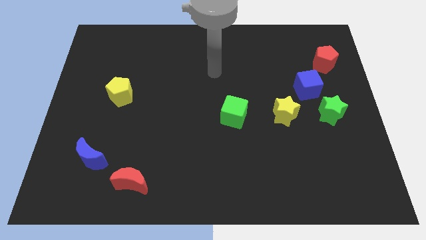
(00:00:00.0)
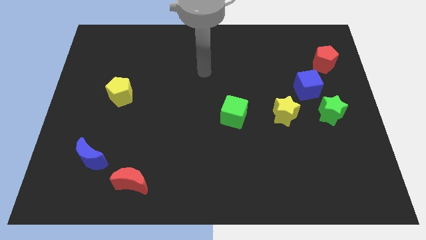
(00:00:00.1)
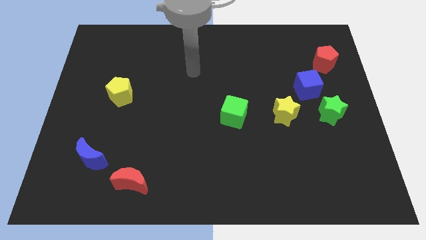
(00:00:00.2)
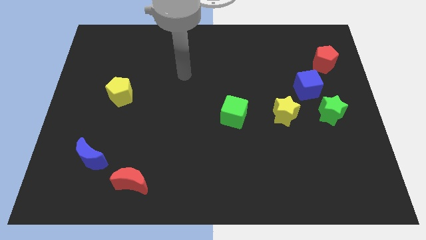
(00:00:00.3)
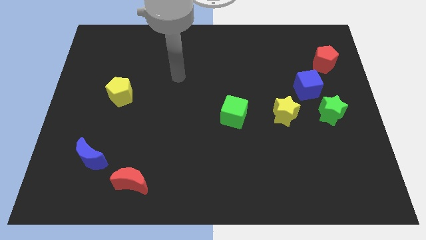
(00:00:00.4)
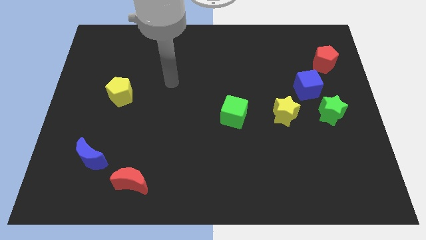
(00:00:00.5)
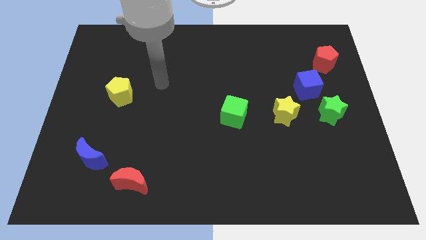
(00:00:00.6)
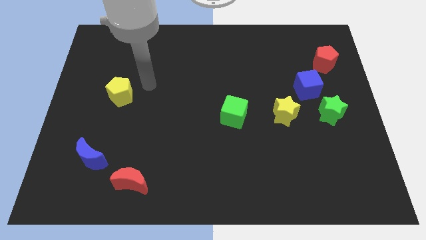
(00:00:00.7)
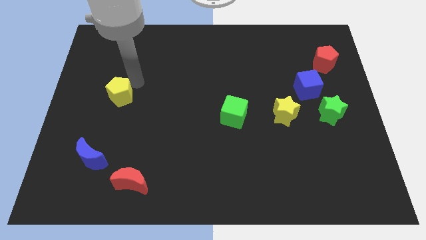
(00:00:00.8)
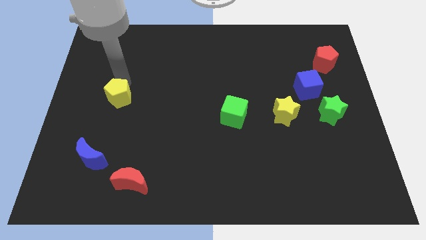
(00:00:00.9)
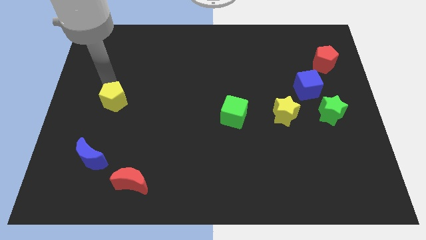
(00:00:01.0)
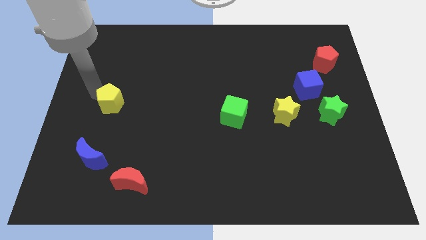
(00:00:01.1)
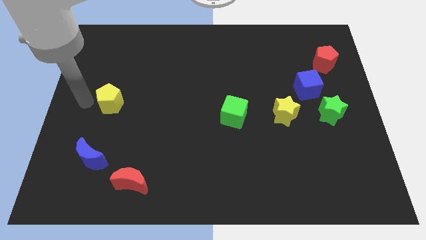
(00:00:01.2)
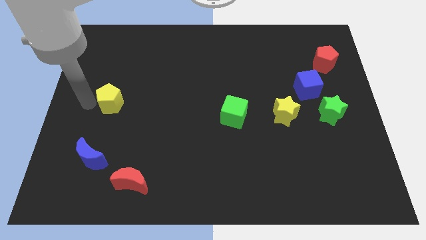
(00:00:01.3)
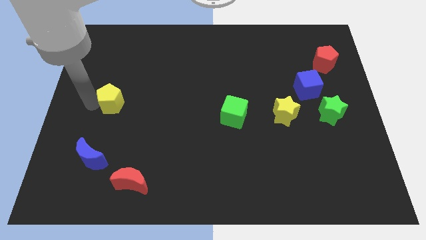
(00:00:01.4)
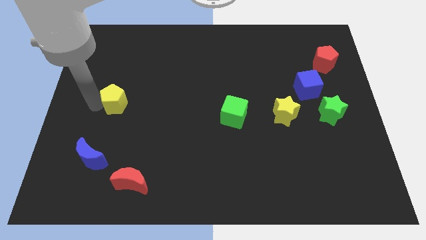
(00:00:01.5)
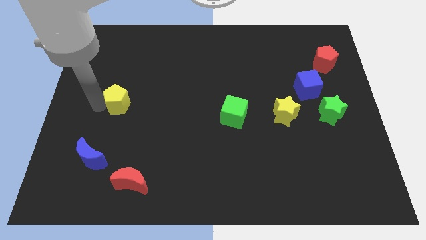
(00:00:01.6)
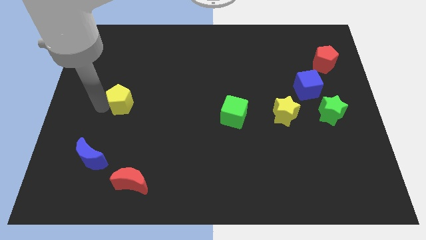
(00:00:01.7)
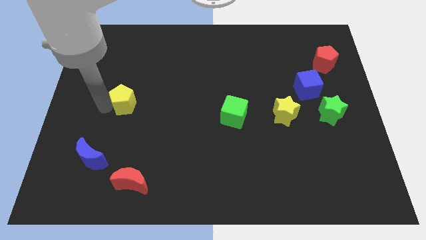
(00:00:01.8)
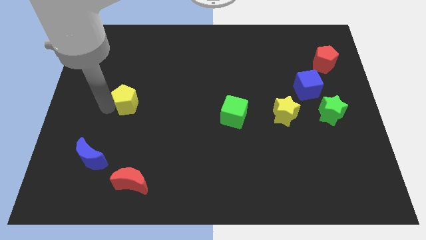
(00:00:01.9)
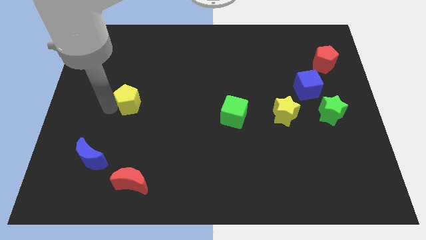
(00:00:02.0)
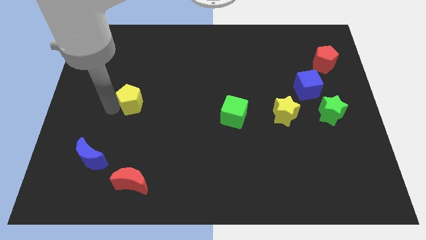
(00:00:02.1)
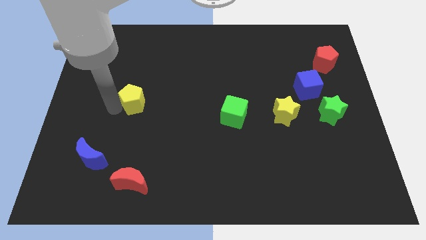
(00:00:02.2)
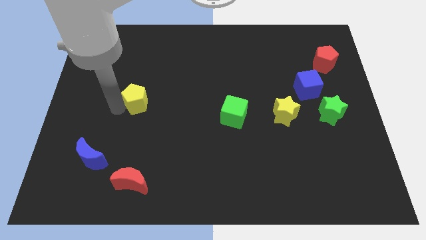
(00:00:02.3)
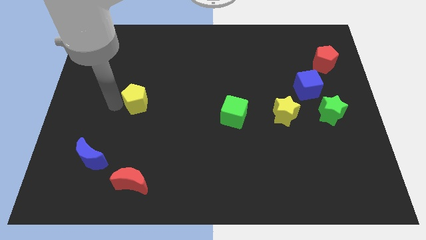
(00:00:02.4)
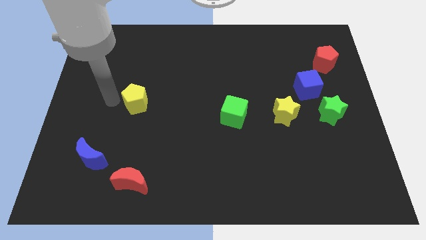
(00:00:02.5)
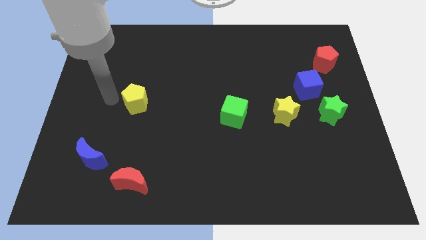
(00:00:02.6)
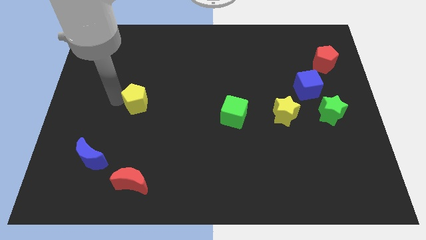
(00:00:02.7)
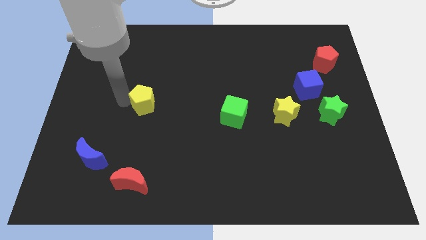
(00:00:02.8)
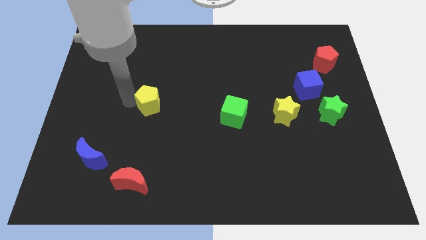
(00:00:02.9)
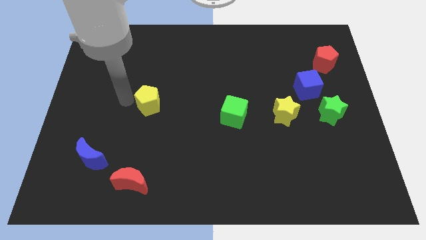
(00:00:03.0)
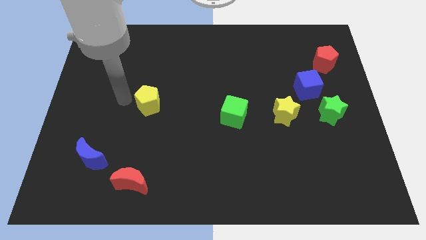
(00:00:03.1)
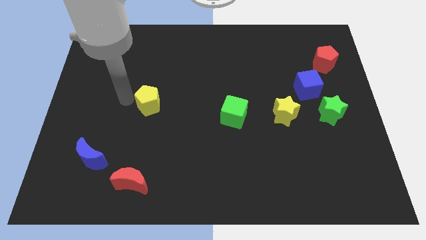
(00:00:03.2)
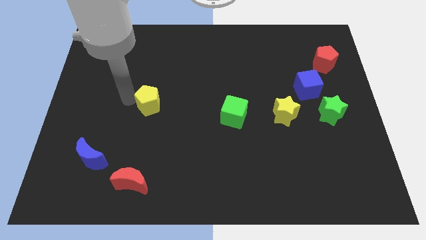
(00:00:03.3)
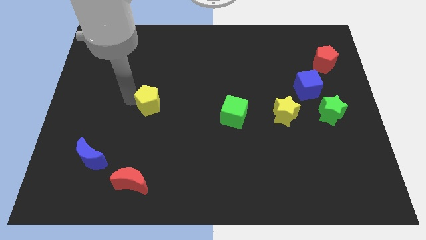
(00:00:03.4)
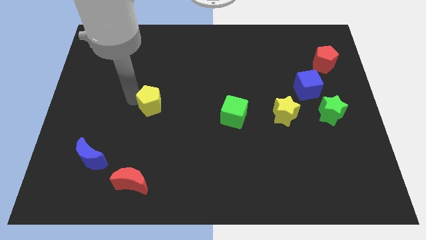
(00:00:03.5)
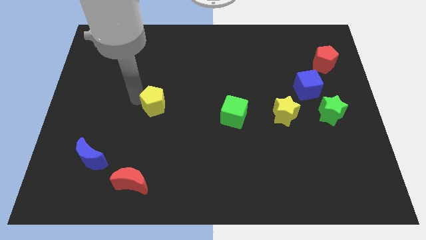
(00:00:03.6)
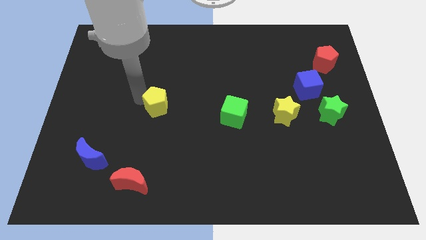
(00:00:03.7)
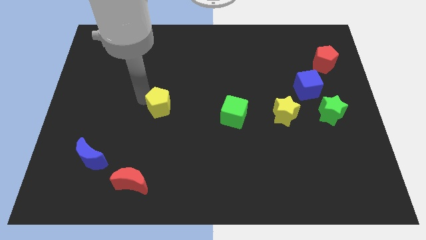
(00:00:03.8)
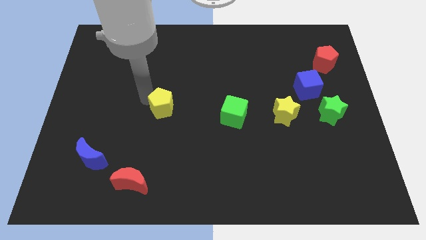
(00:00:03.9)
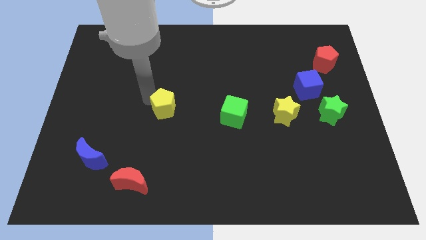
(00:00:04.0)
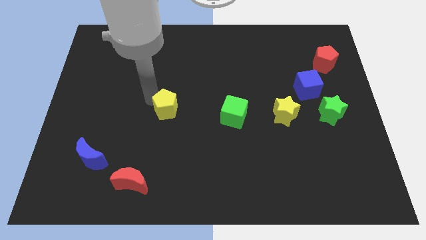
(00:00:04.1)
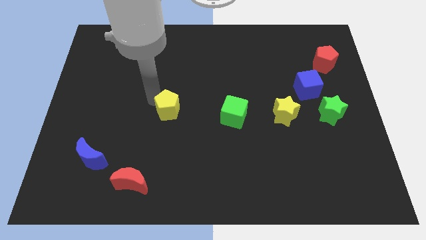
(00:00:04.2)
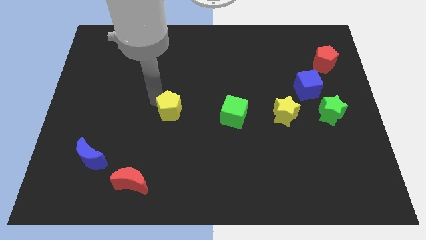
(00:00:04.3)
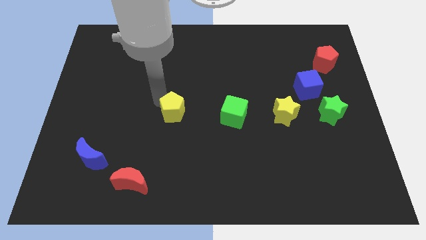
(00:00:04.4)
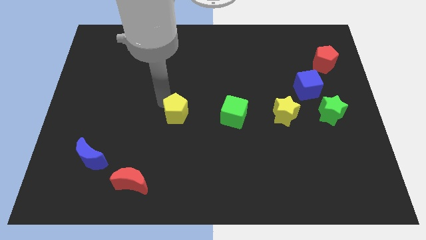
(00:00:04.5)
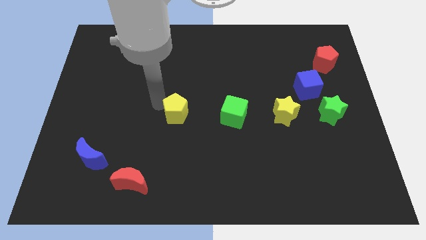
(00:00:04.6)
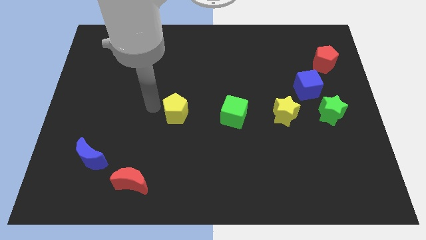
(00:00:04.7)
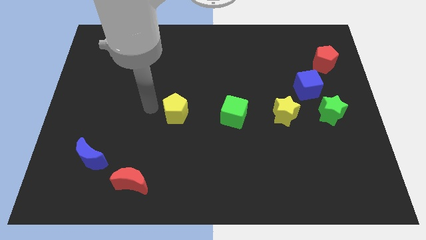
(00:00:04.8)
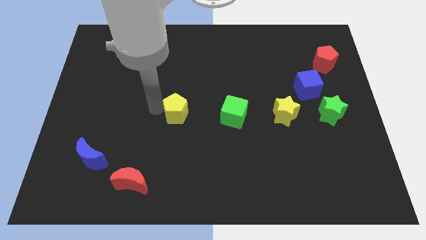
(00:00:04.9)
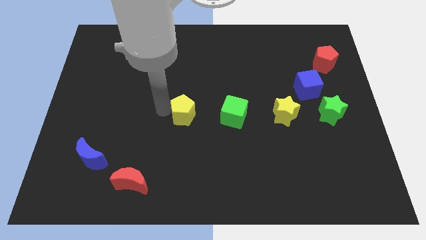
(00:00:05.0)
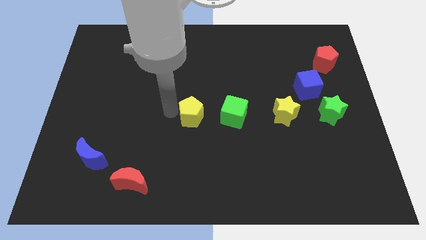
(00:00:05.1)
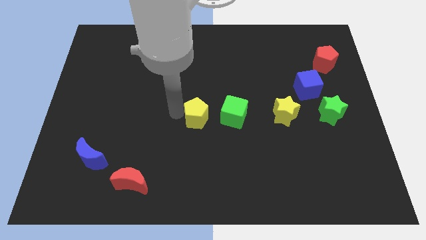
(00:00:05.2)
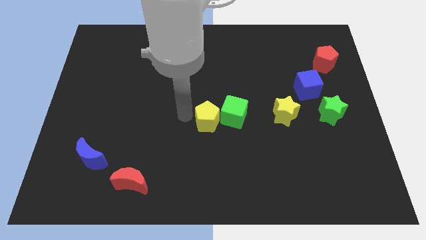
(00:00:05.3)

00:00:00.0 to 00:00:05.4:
push the yellow pentagon close to the green cube

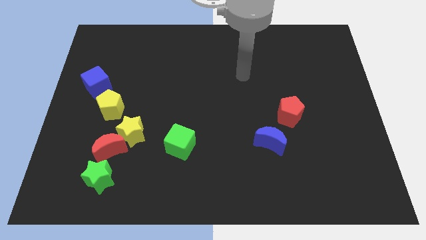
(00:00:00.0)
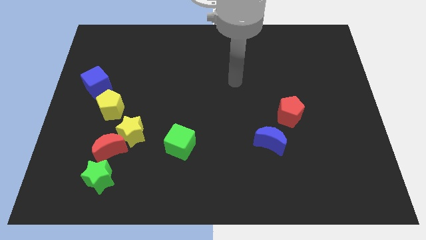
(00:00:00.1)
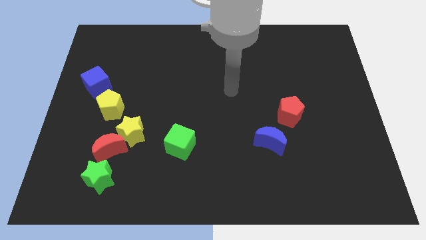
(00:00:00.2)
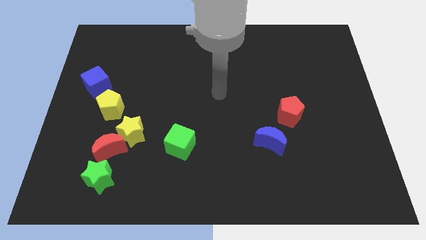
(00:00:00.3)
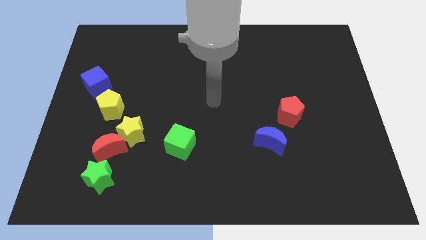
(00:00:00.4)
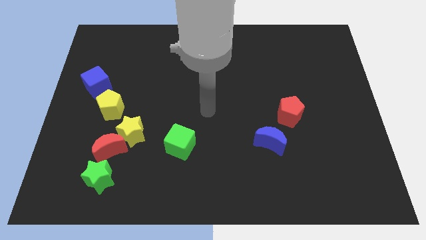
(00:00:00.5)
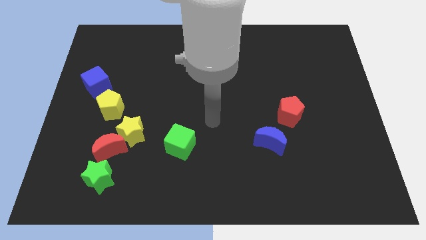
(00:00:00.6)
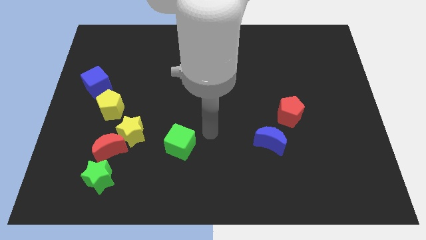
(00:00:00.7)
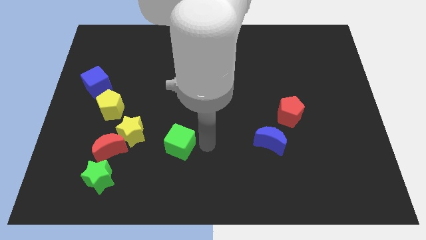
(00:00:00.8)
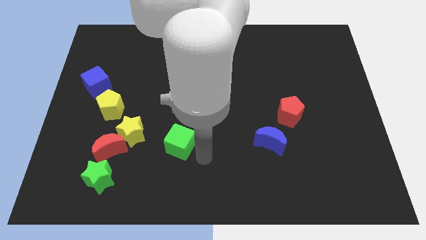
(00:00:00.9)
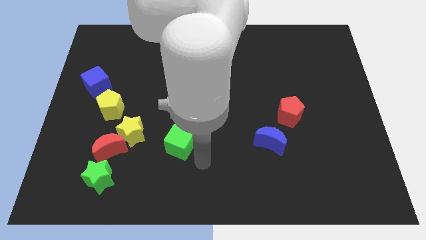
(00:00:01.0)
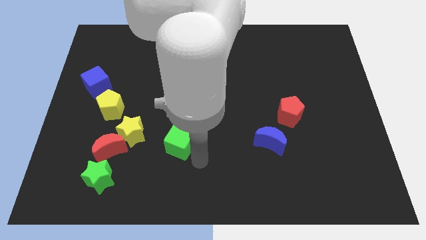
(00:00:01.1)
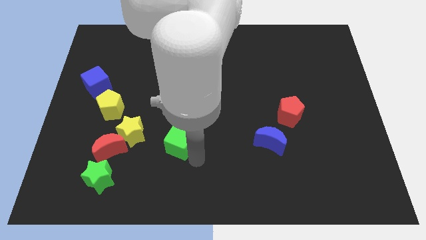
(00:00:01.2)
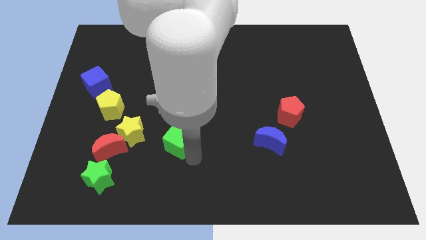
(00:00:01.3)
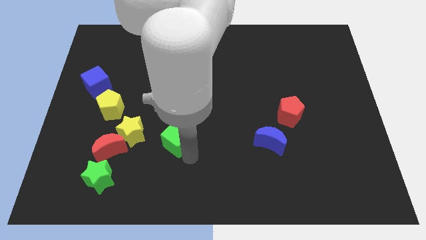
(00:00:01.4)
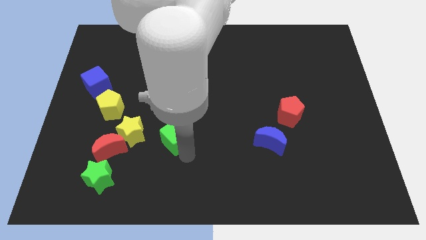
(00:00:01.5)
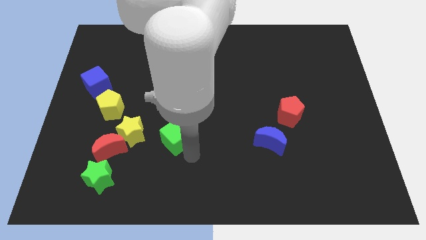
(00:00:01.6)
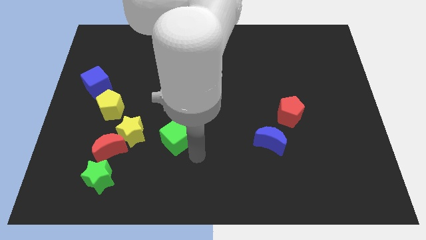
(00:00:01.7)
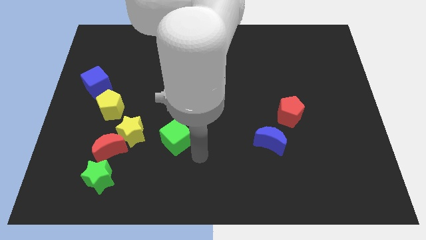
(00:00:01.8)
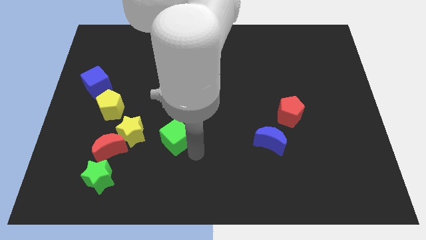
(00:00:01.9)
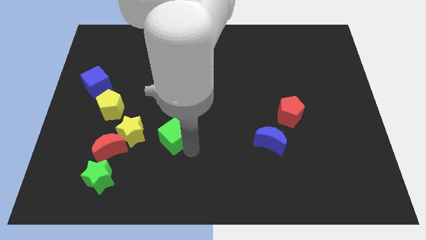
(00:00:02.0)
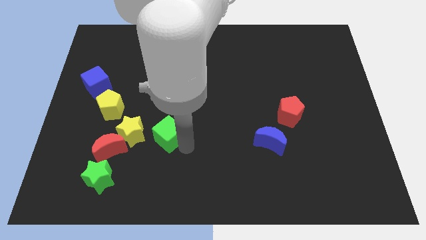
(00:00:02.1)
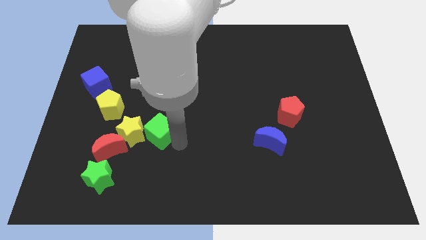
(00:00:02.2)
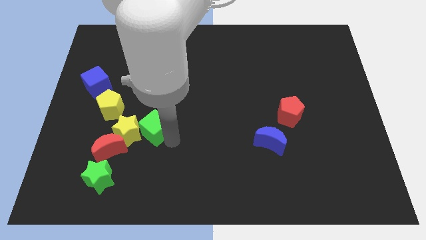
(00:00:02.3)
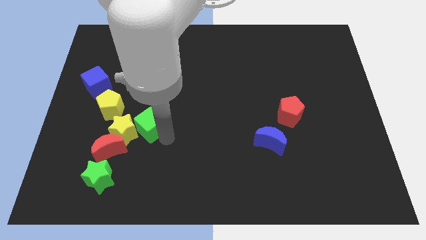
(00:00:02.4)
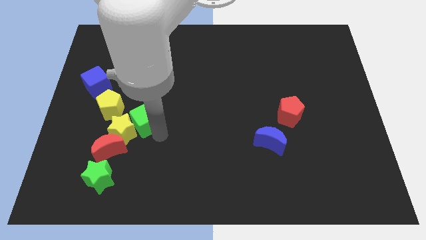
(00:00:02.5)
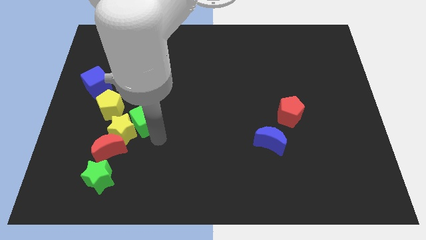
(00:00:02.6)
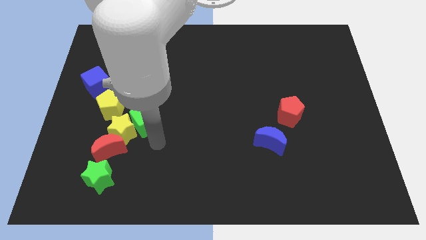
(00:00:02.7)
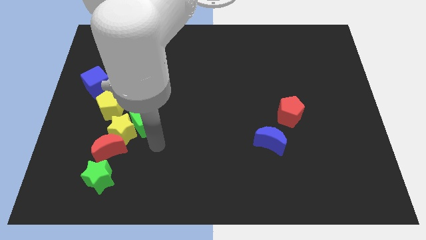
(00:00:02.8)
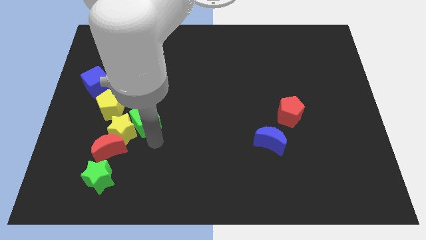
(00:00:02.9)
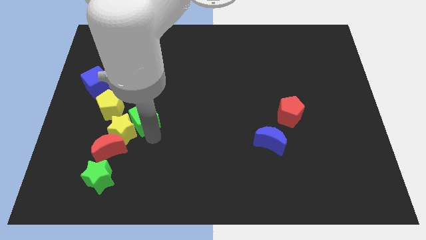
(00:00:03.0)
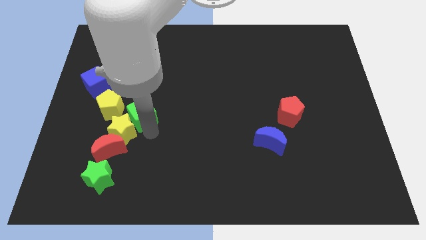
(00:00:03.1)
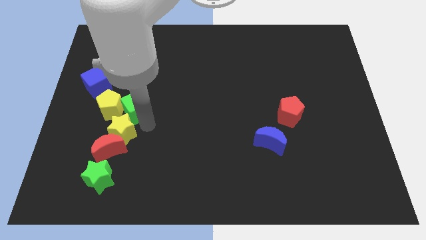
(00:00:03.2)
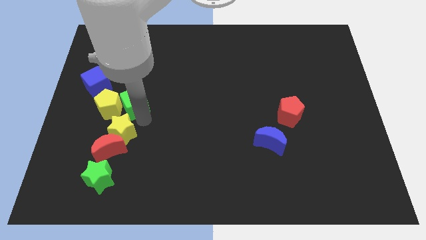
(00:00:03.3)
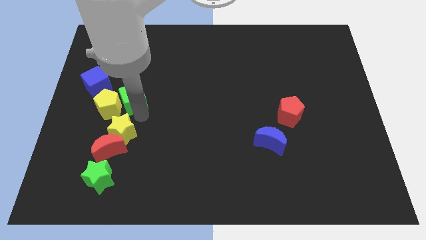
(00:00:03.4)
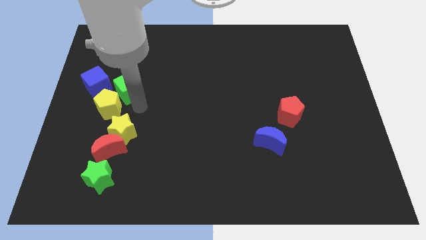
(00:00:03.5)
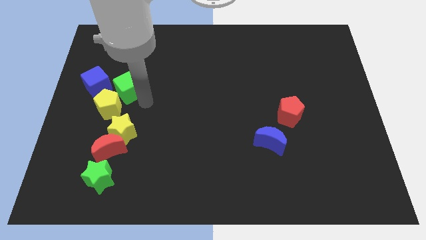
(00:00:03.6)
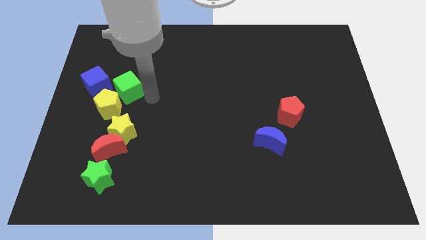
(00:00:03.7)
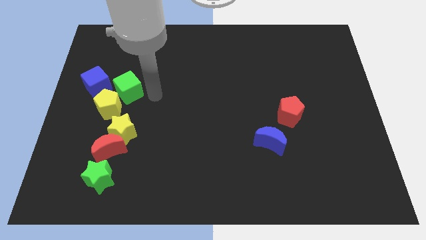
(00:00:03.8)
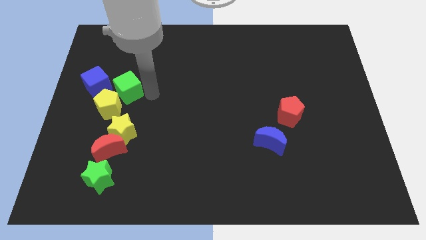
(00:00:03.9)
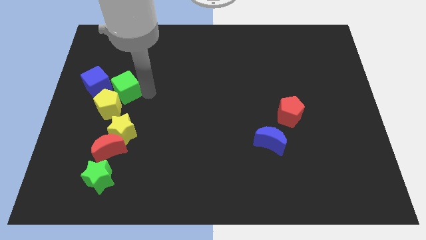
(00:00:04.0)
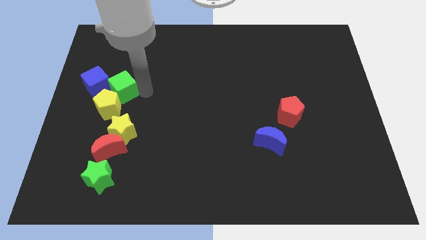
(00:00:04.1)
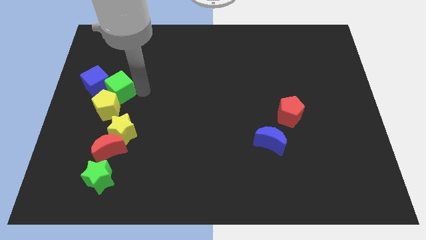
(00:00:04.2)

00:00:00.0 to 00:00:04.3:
put the green cube to the blue cube
